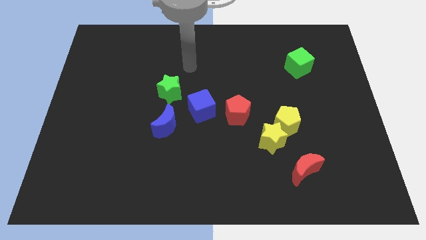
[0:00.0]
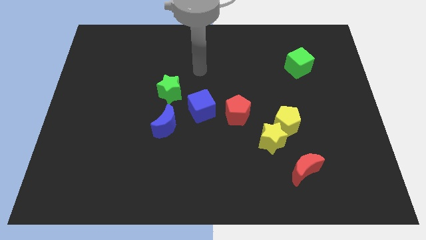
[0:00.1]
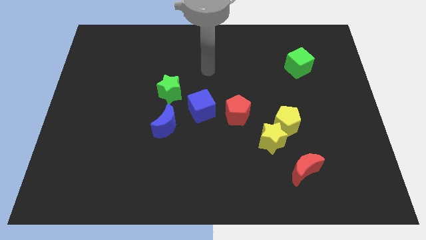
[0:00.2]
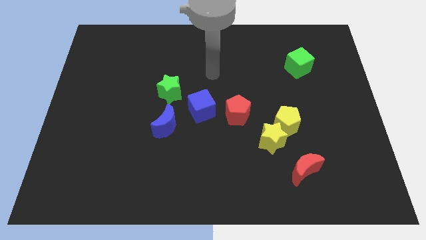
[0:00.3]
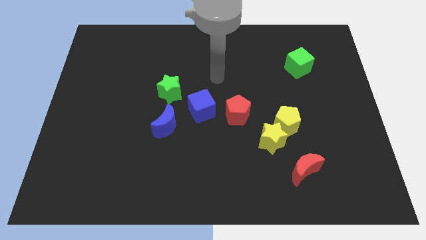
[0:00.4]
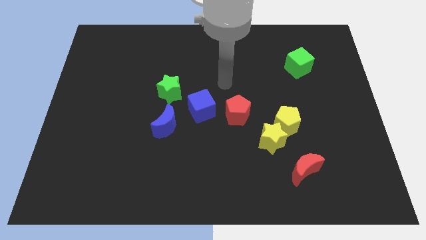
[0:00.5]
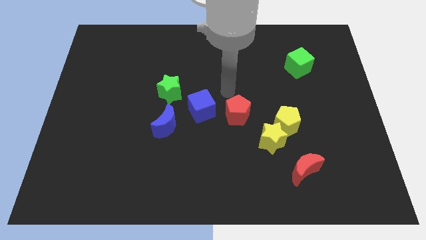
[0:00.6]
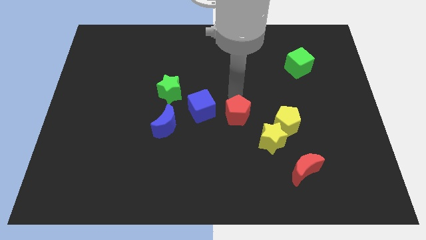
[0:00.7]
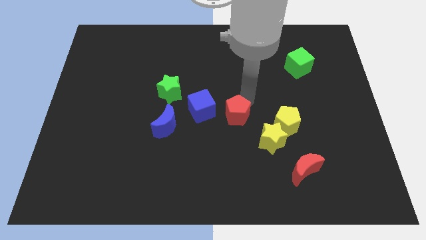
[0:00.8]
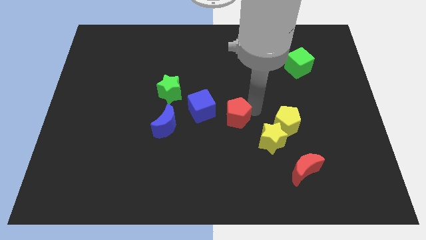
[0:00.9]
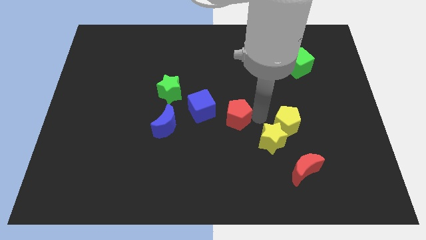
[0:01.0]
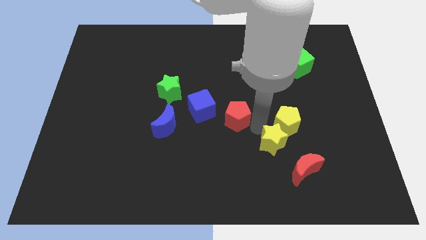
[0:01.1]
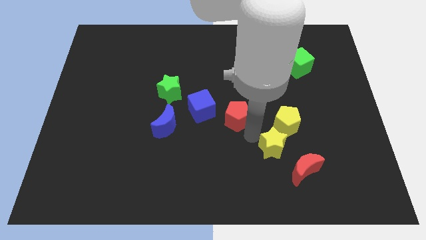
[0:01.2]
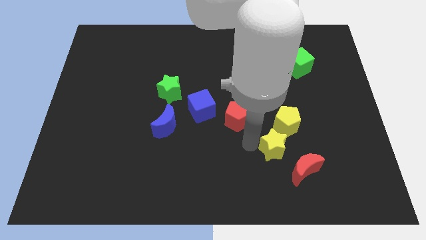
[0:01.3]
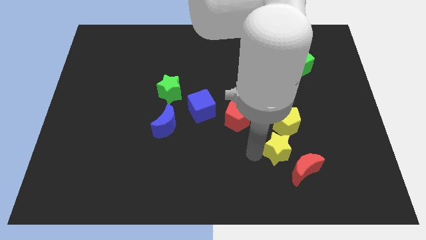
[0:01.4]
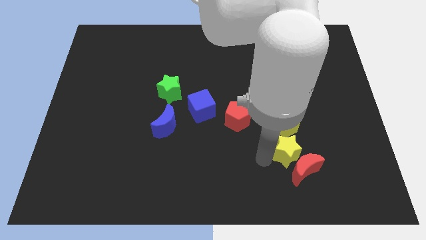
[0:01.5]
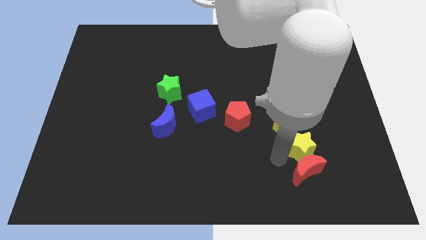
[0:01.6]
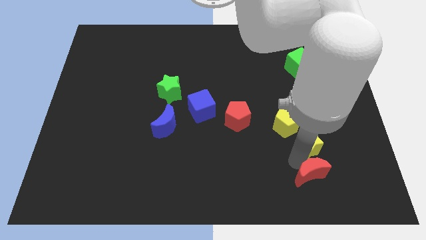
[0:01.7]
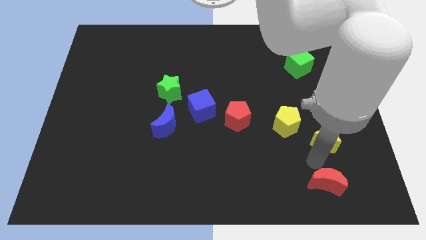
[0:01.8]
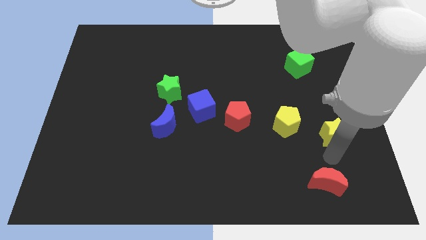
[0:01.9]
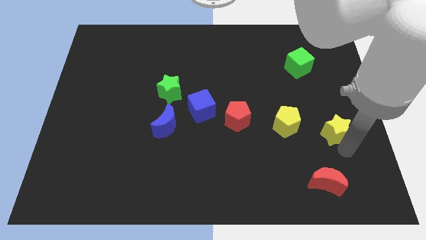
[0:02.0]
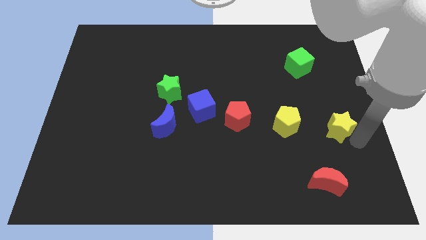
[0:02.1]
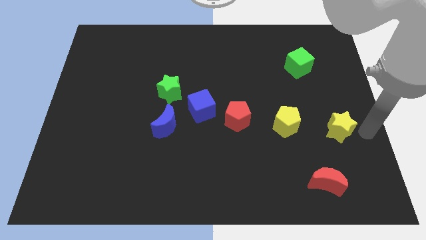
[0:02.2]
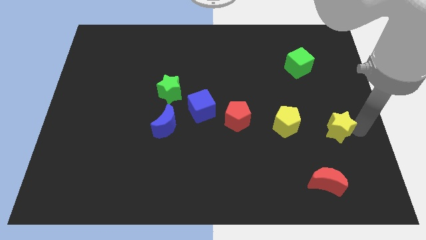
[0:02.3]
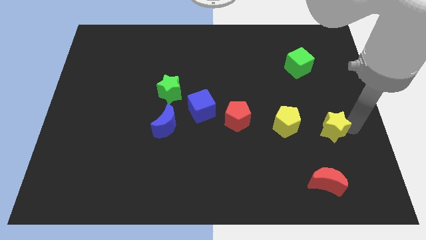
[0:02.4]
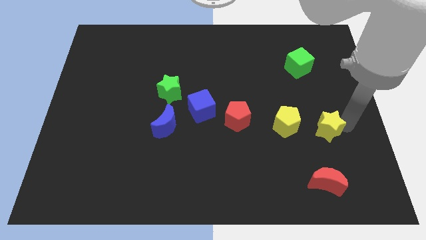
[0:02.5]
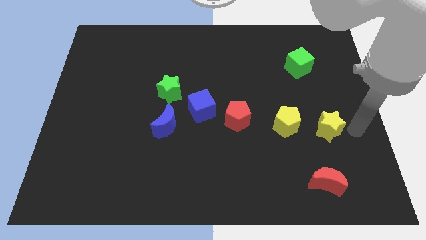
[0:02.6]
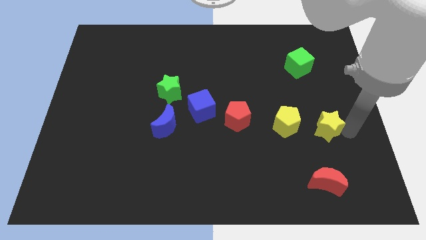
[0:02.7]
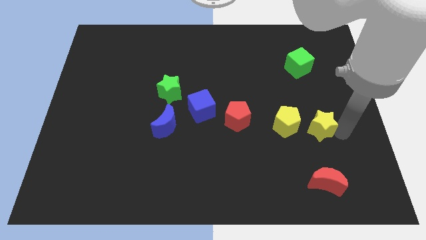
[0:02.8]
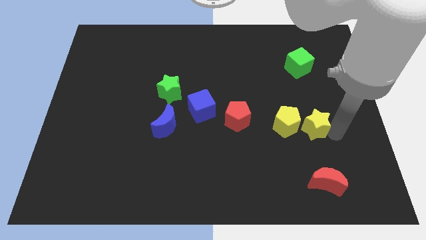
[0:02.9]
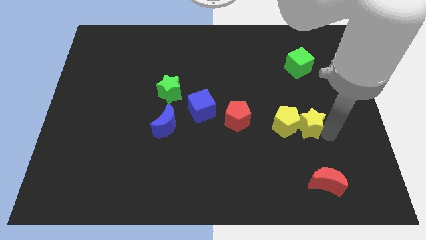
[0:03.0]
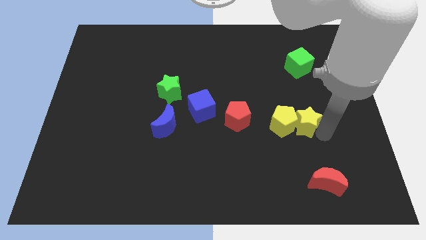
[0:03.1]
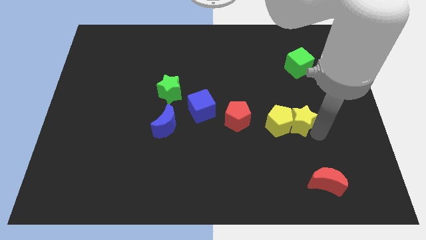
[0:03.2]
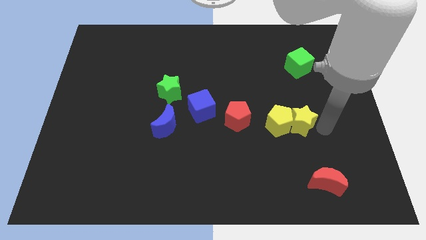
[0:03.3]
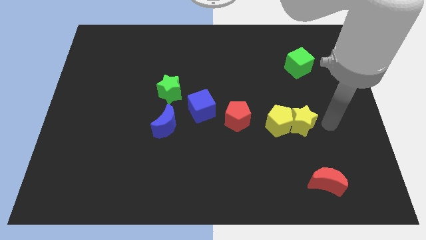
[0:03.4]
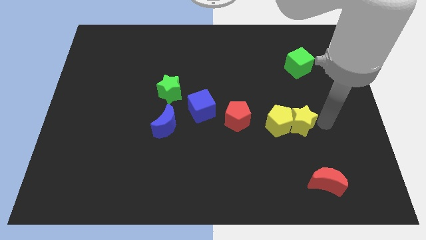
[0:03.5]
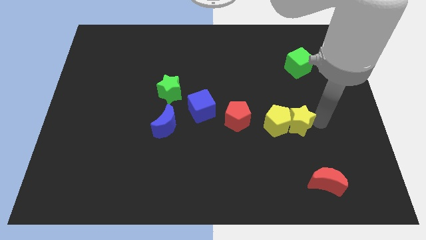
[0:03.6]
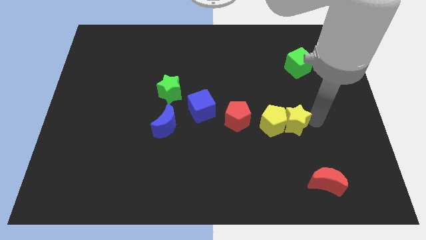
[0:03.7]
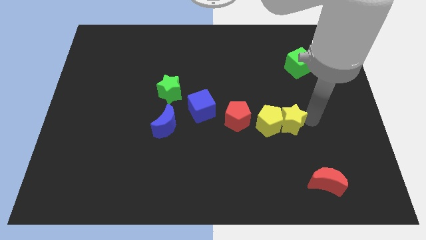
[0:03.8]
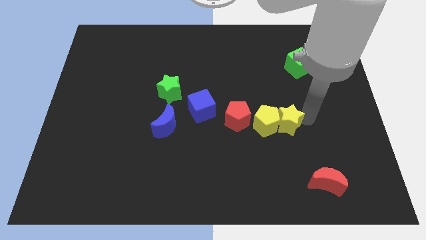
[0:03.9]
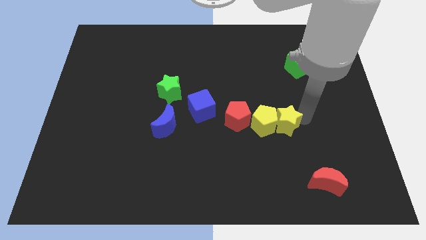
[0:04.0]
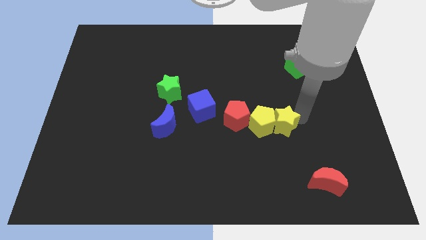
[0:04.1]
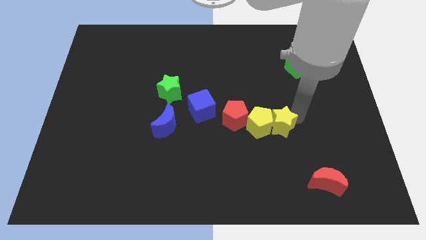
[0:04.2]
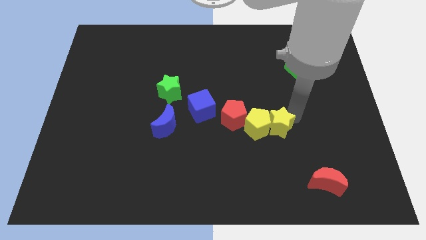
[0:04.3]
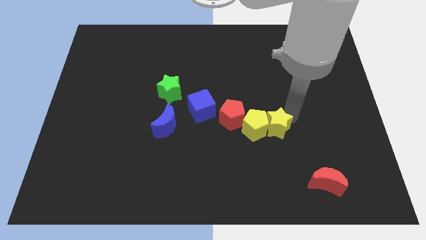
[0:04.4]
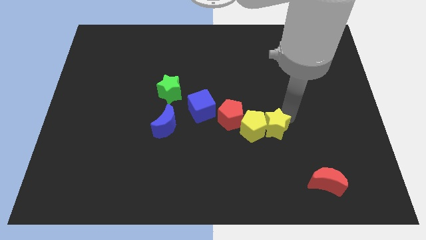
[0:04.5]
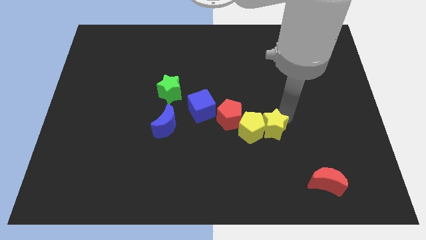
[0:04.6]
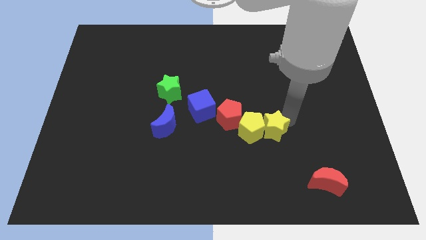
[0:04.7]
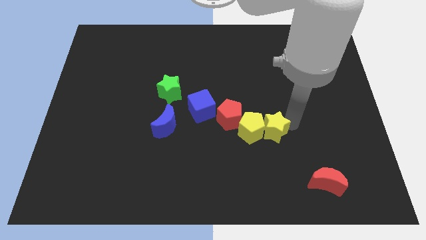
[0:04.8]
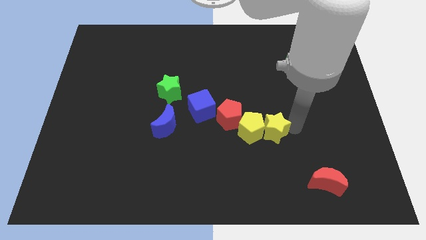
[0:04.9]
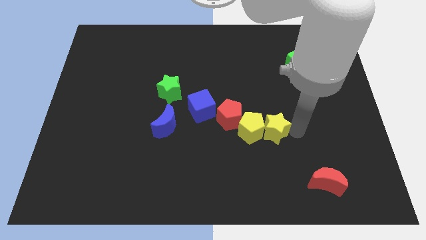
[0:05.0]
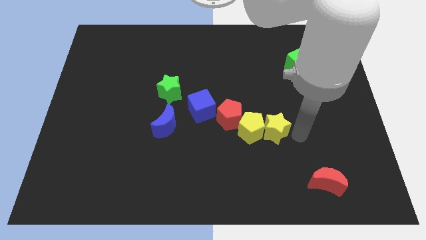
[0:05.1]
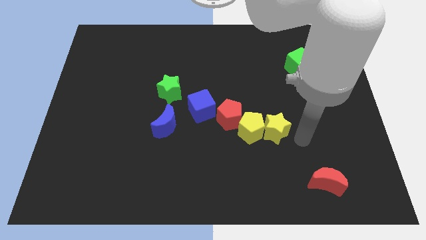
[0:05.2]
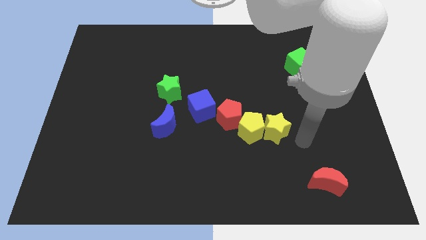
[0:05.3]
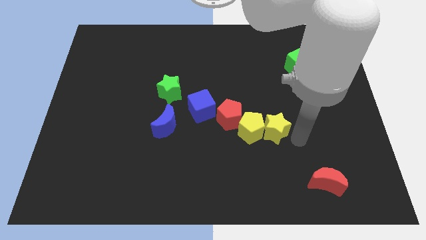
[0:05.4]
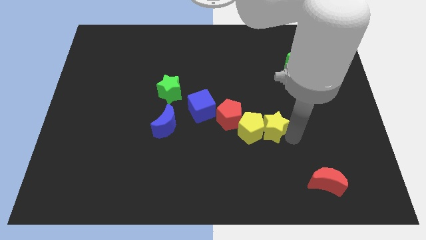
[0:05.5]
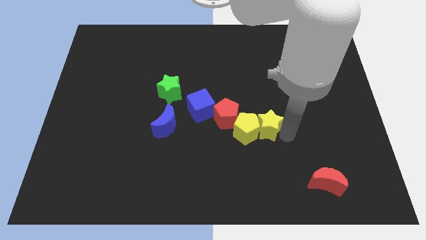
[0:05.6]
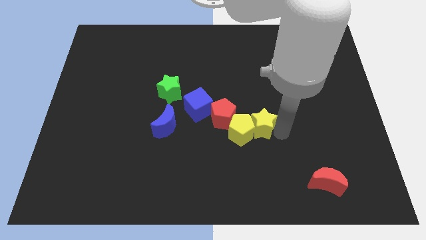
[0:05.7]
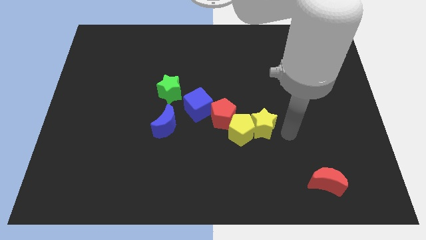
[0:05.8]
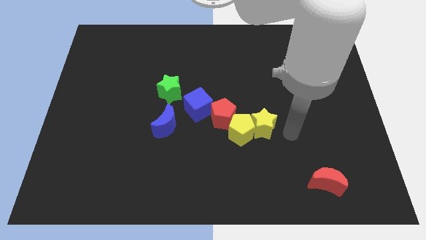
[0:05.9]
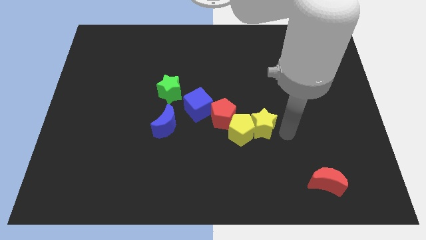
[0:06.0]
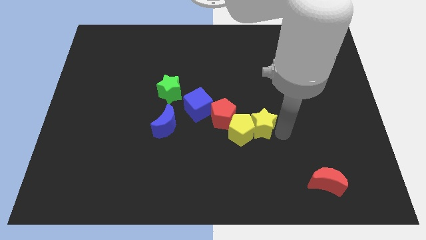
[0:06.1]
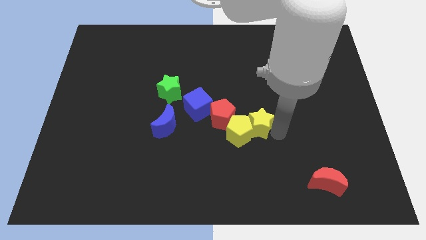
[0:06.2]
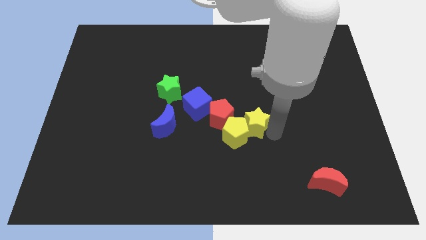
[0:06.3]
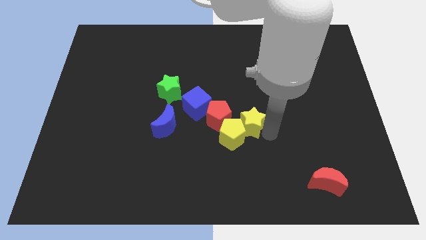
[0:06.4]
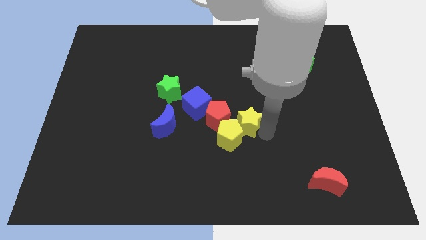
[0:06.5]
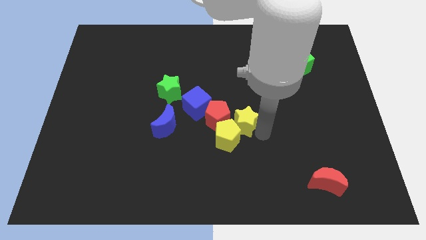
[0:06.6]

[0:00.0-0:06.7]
move the yellow star close to the red pentagon
